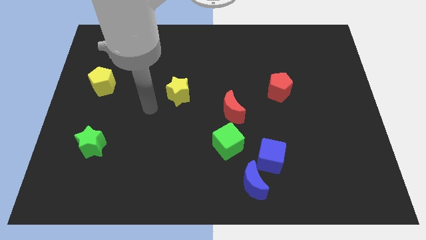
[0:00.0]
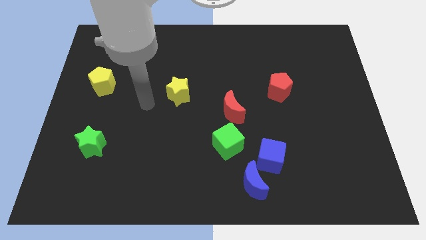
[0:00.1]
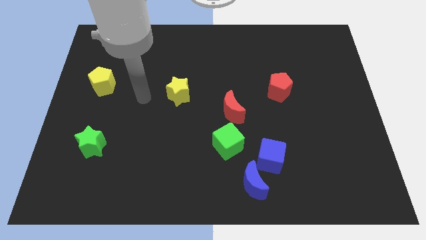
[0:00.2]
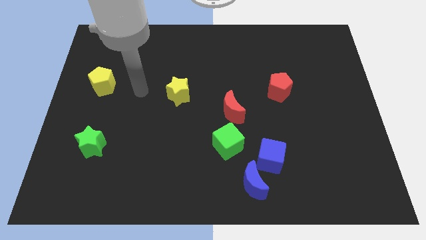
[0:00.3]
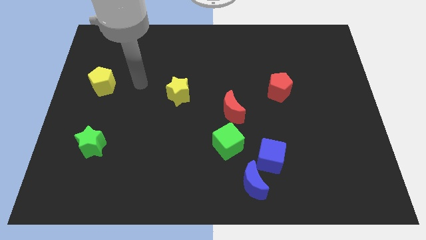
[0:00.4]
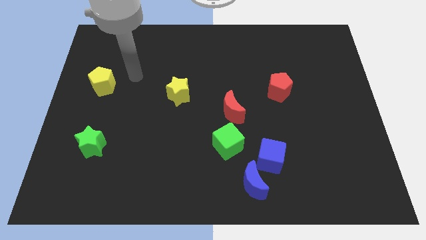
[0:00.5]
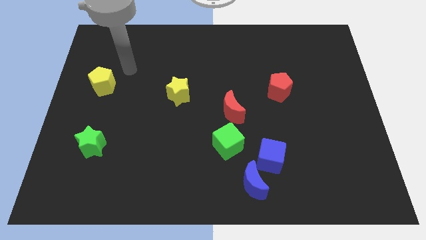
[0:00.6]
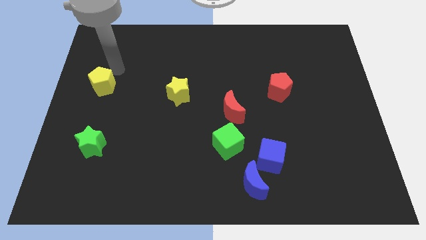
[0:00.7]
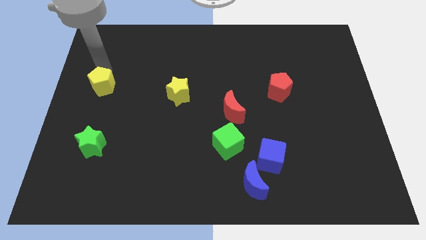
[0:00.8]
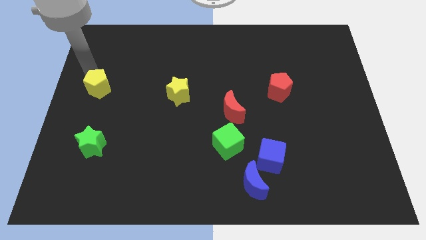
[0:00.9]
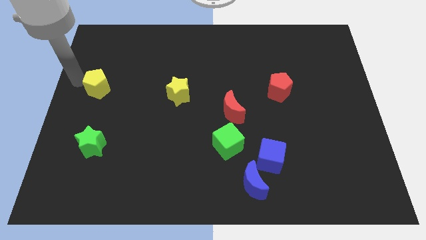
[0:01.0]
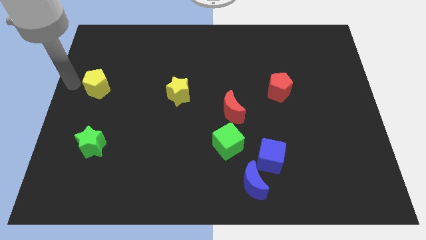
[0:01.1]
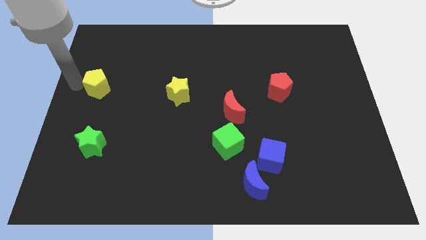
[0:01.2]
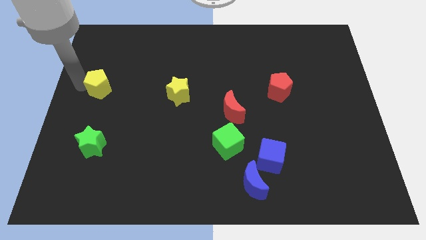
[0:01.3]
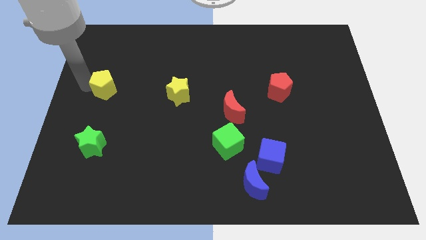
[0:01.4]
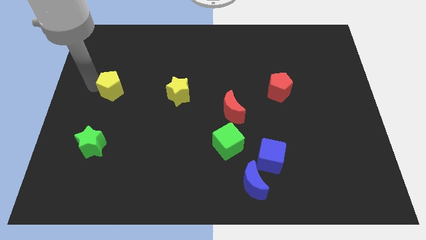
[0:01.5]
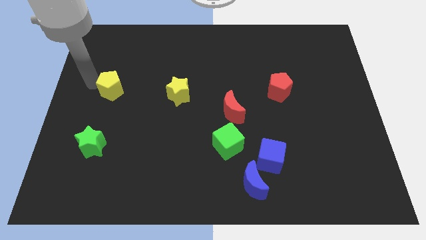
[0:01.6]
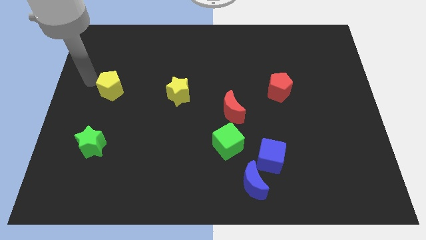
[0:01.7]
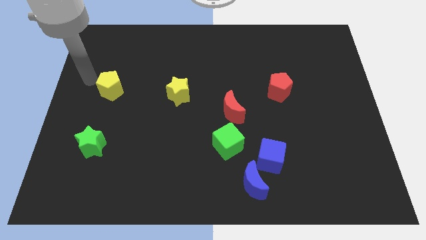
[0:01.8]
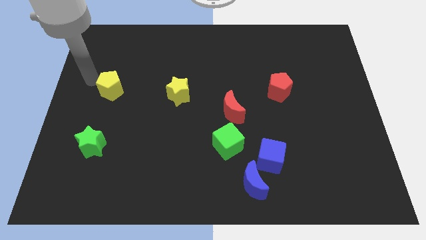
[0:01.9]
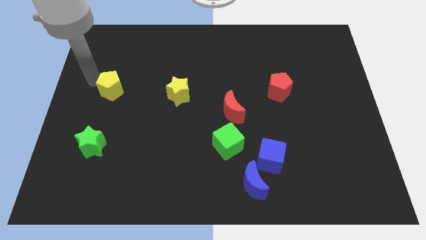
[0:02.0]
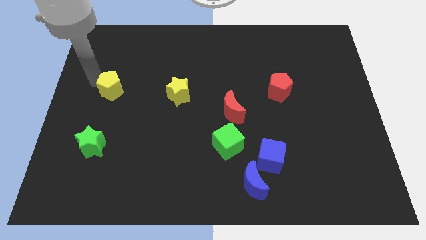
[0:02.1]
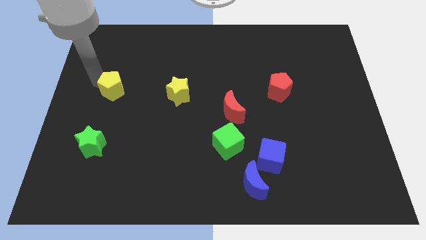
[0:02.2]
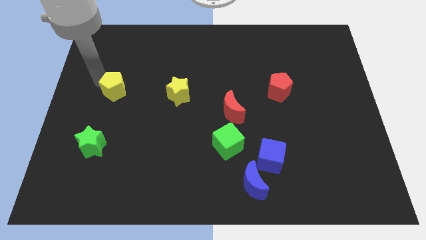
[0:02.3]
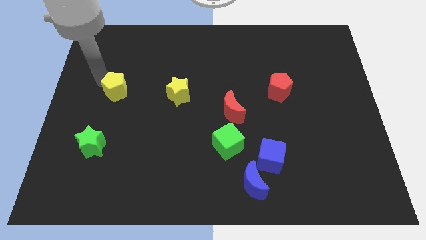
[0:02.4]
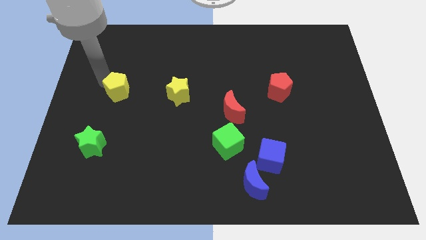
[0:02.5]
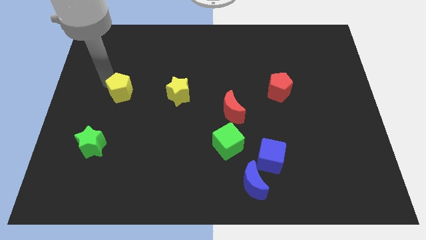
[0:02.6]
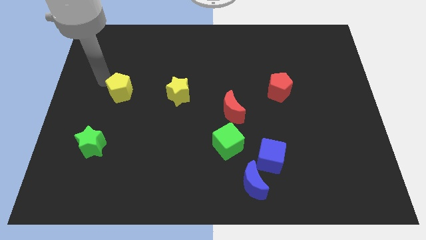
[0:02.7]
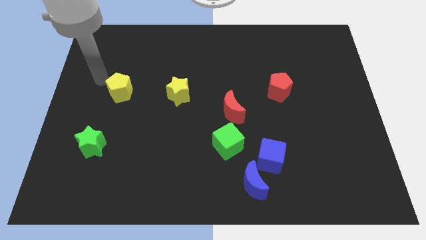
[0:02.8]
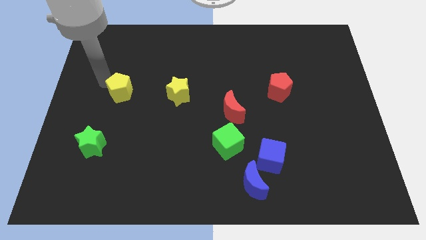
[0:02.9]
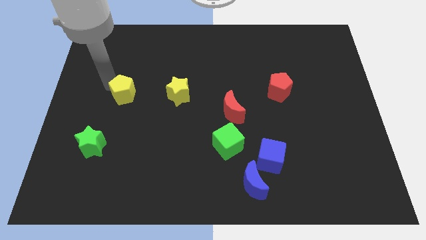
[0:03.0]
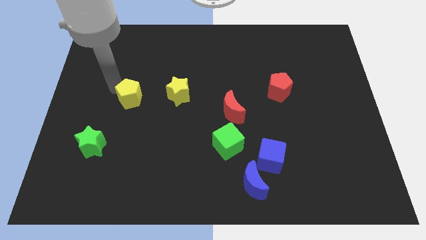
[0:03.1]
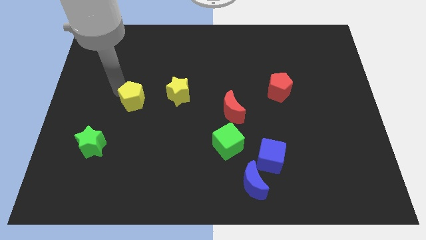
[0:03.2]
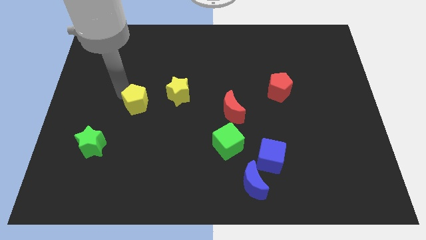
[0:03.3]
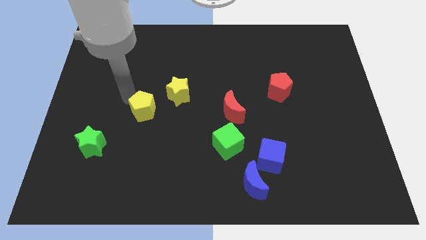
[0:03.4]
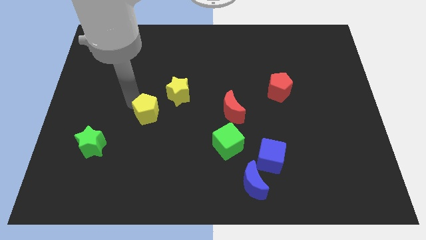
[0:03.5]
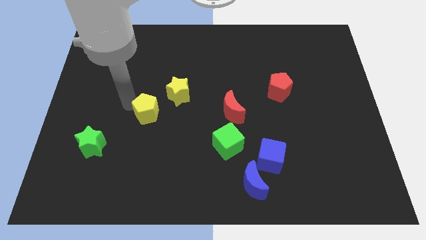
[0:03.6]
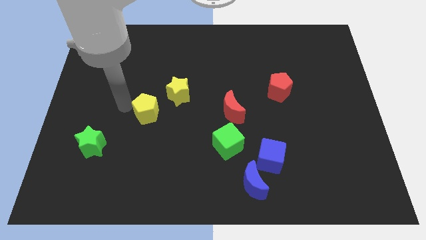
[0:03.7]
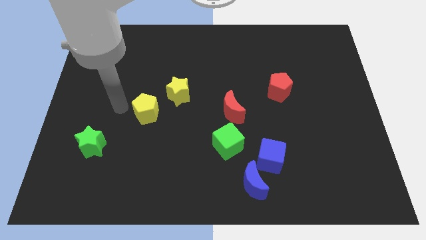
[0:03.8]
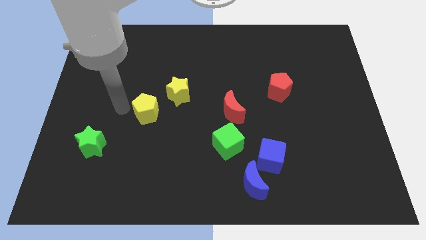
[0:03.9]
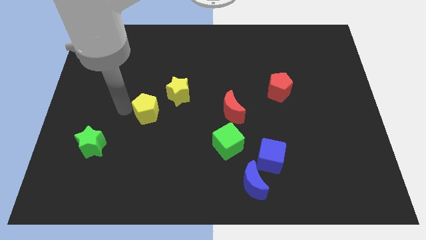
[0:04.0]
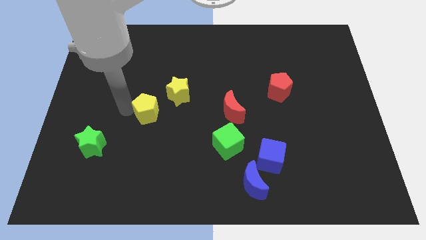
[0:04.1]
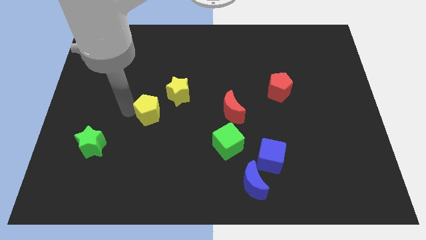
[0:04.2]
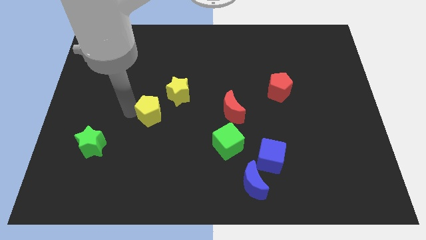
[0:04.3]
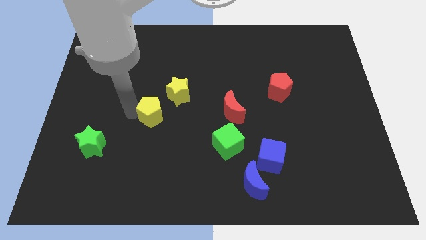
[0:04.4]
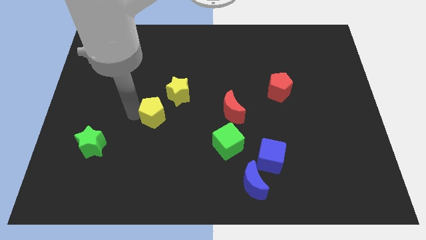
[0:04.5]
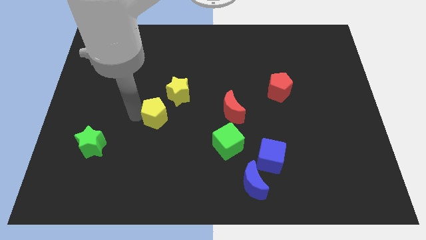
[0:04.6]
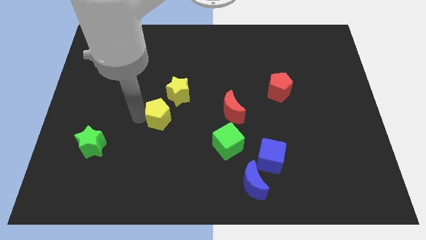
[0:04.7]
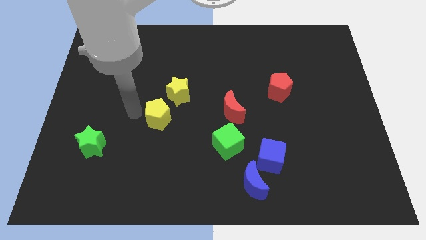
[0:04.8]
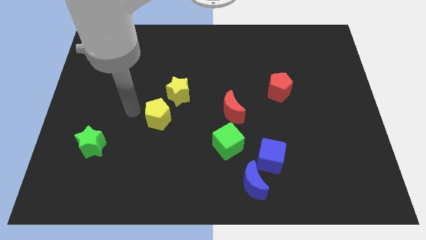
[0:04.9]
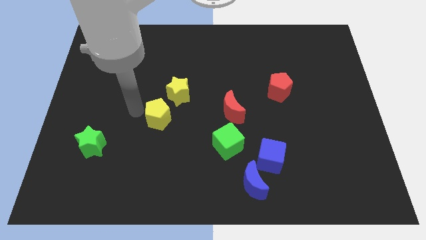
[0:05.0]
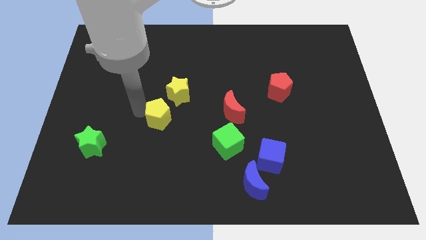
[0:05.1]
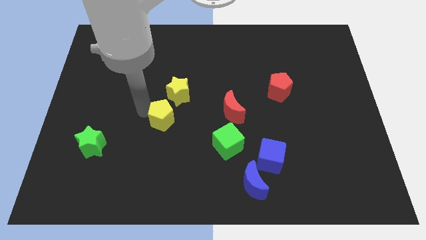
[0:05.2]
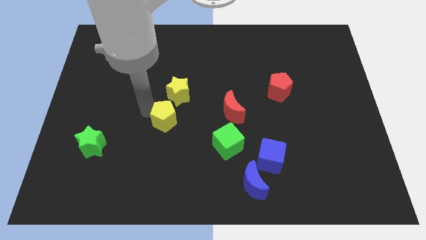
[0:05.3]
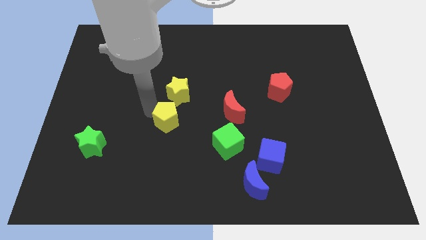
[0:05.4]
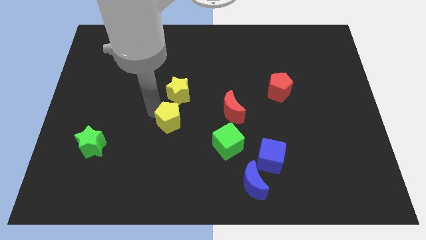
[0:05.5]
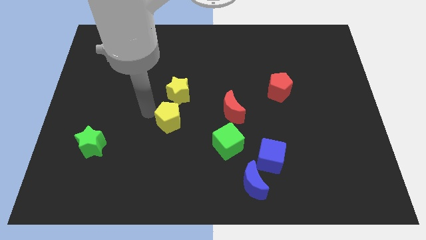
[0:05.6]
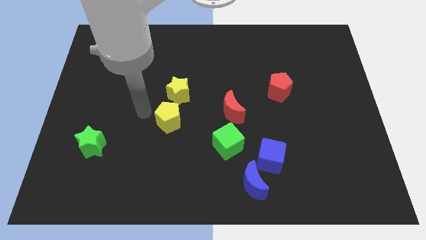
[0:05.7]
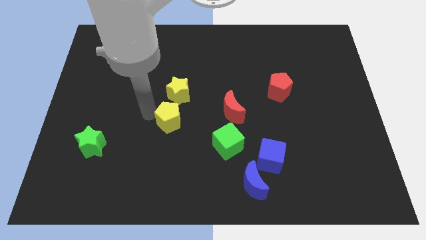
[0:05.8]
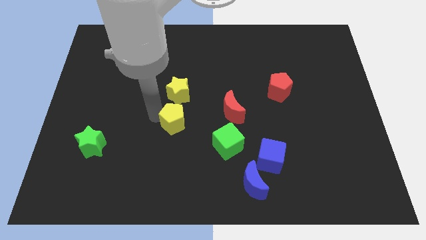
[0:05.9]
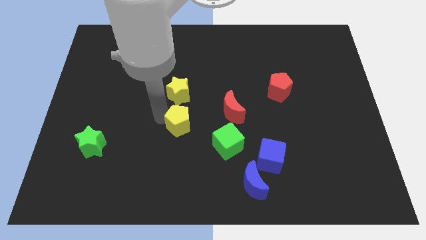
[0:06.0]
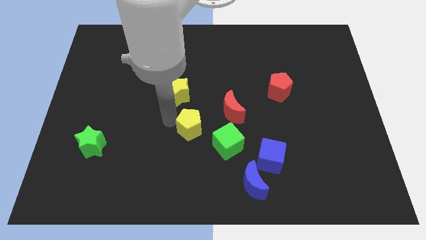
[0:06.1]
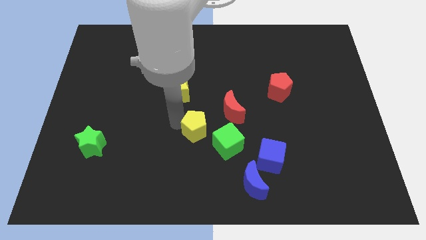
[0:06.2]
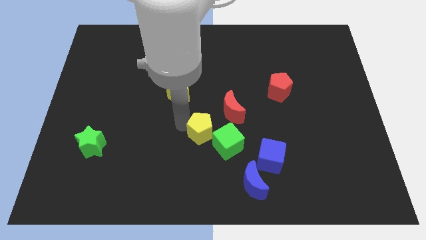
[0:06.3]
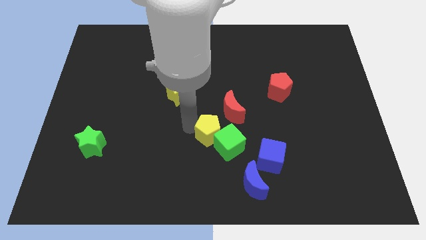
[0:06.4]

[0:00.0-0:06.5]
slide the yellow pentagon close to the green cube

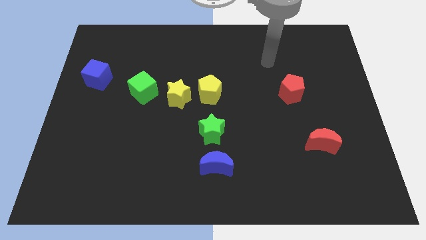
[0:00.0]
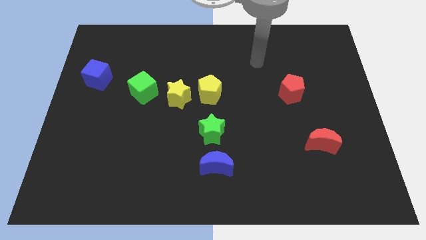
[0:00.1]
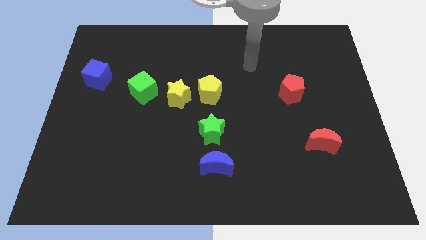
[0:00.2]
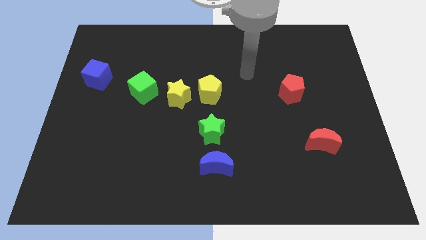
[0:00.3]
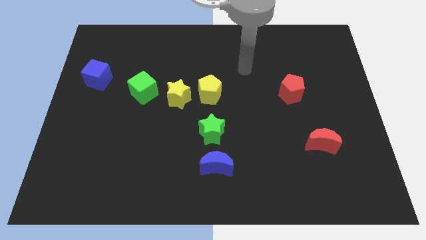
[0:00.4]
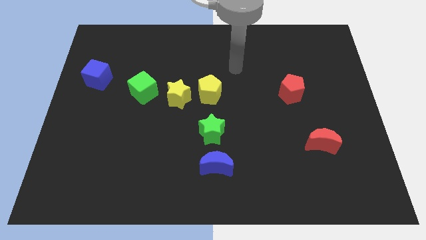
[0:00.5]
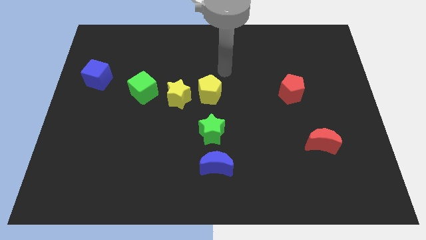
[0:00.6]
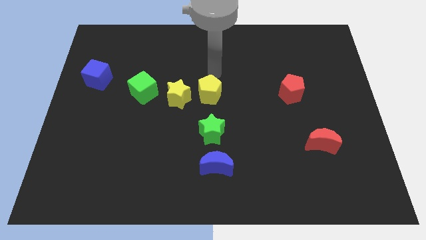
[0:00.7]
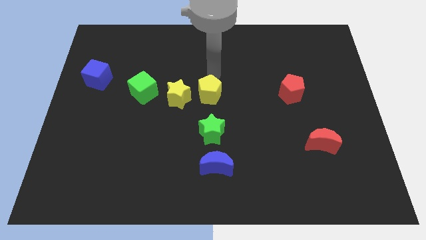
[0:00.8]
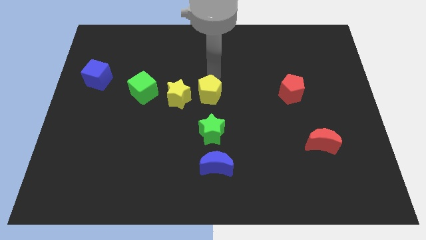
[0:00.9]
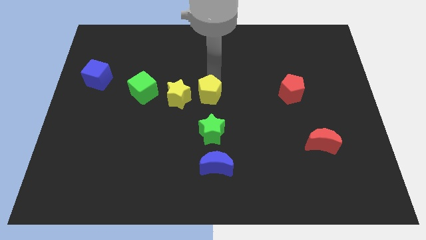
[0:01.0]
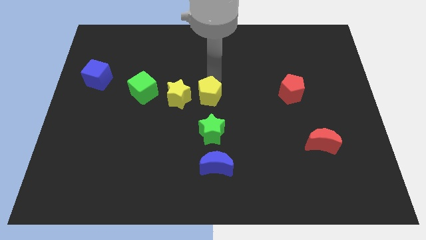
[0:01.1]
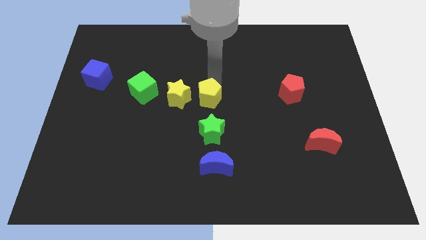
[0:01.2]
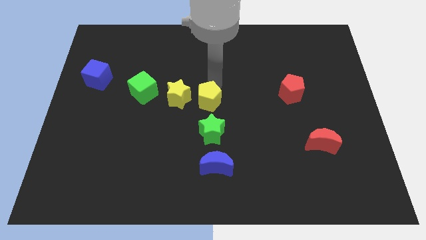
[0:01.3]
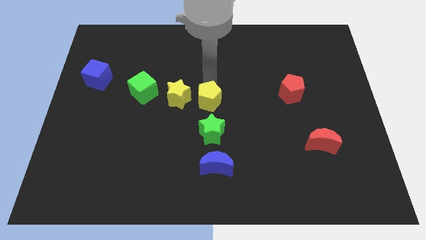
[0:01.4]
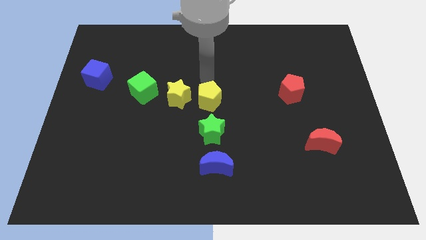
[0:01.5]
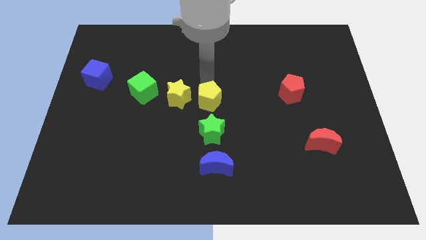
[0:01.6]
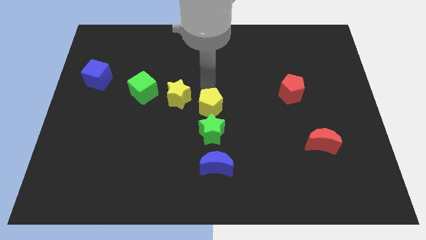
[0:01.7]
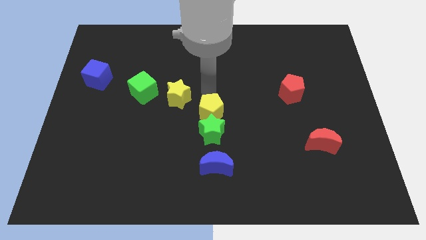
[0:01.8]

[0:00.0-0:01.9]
move the yellow pentagon next to the green star
